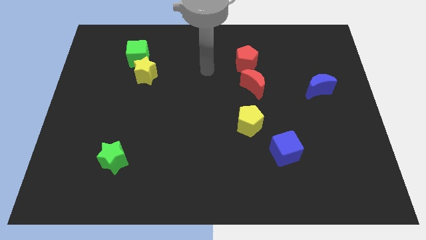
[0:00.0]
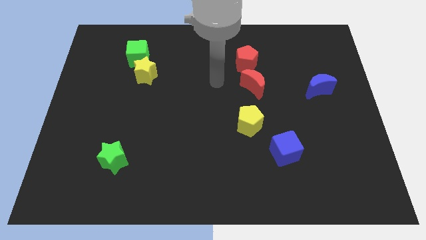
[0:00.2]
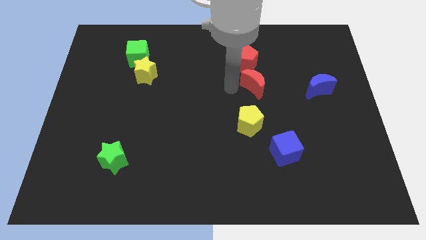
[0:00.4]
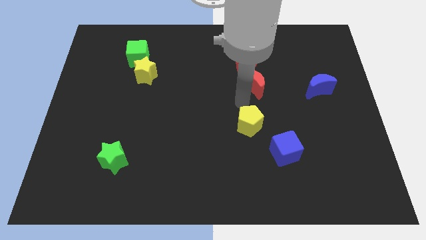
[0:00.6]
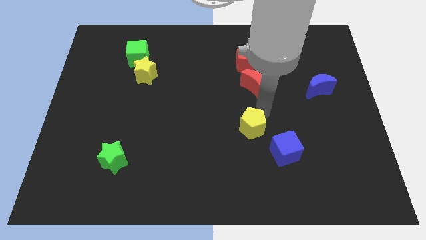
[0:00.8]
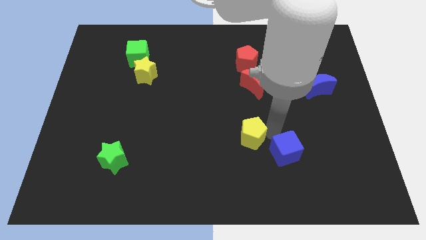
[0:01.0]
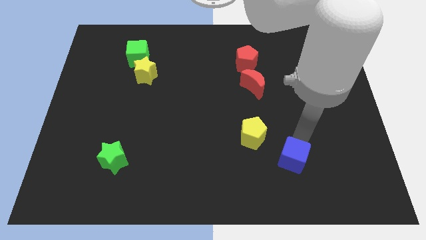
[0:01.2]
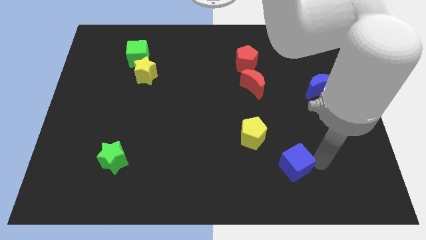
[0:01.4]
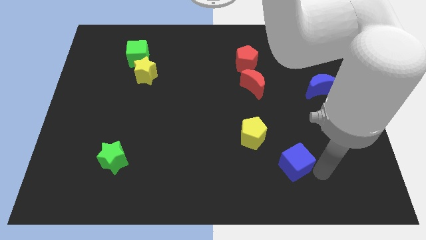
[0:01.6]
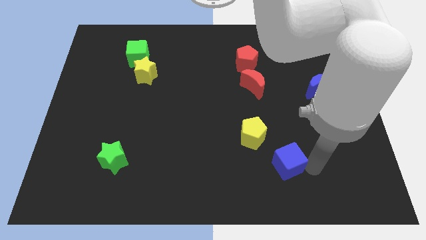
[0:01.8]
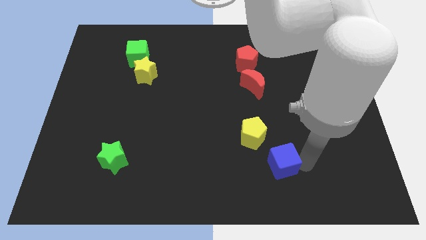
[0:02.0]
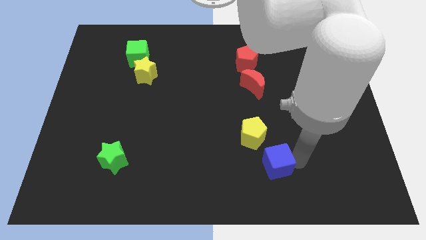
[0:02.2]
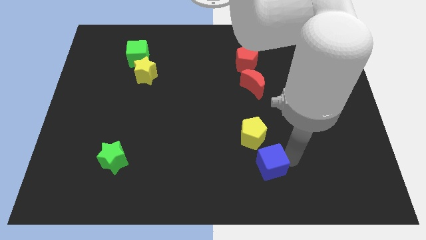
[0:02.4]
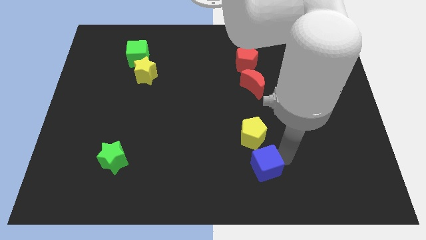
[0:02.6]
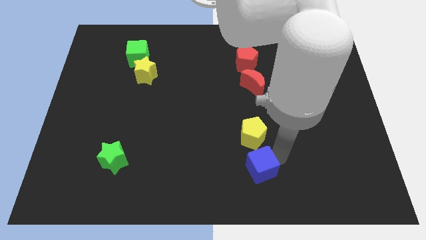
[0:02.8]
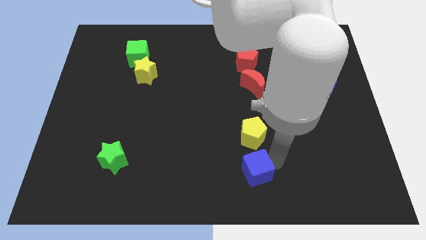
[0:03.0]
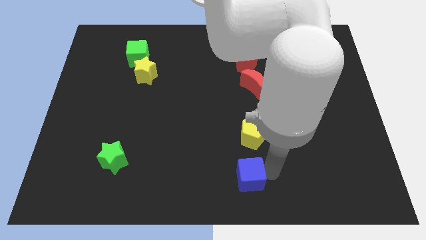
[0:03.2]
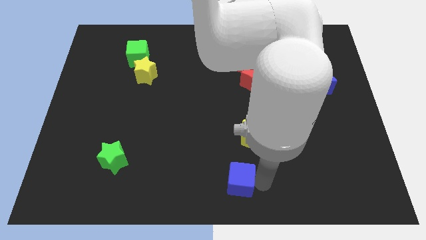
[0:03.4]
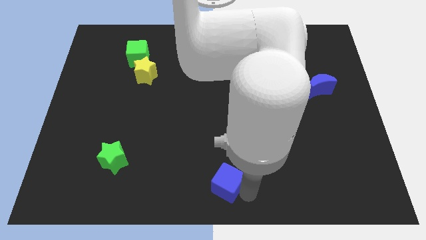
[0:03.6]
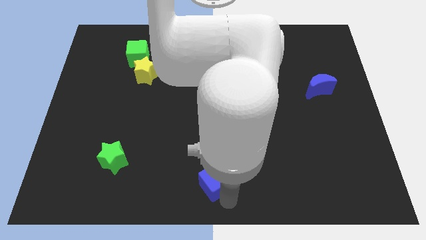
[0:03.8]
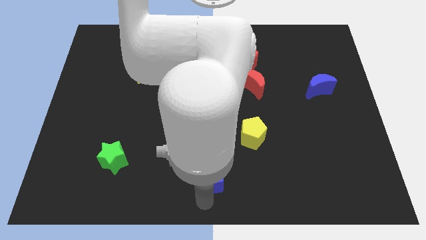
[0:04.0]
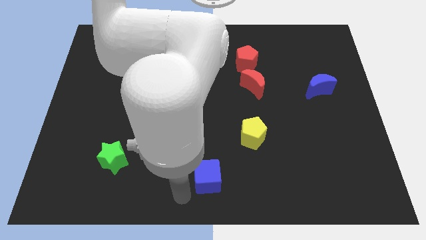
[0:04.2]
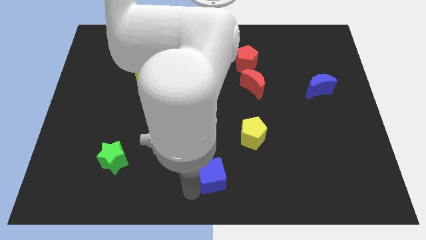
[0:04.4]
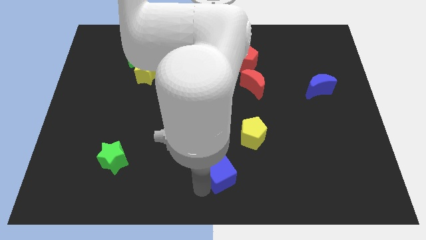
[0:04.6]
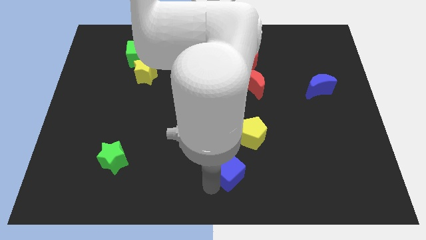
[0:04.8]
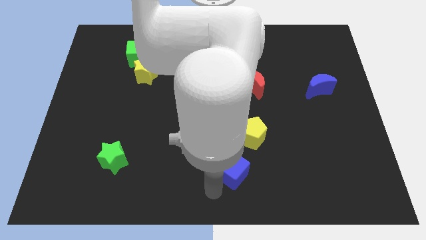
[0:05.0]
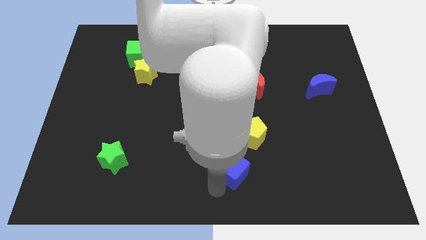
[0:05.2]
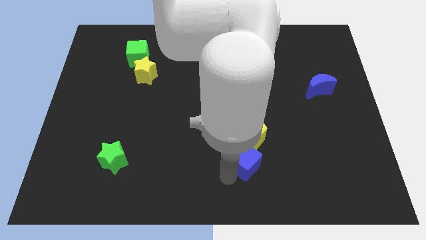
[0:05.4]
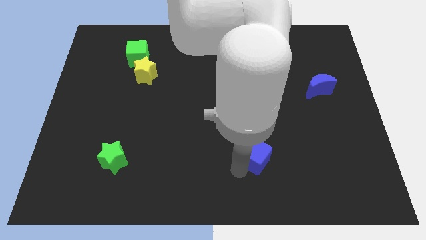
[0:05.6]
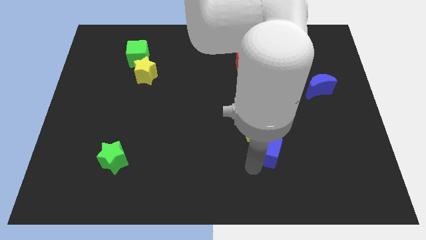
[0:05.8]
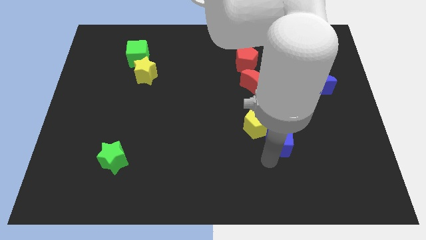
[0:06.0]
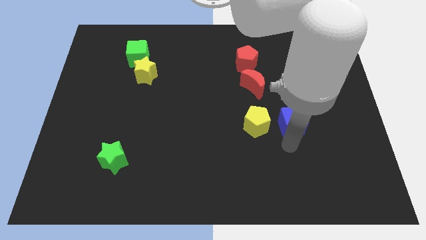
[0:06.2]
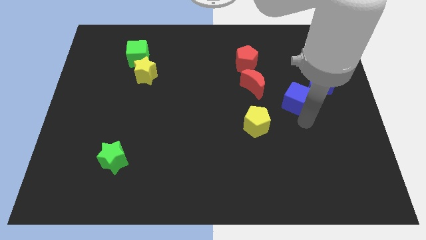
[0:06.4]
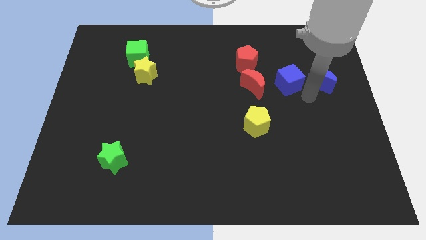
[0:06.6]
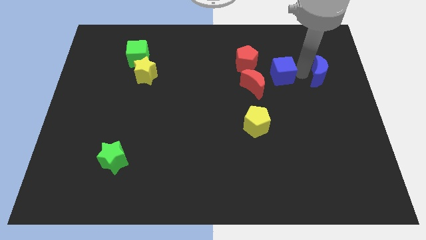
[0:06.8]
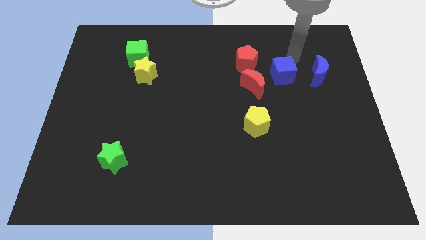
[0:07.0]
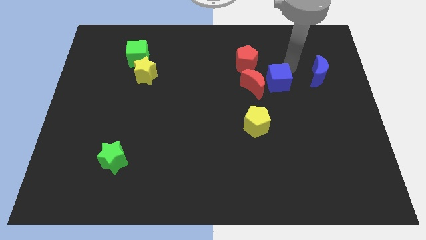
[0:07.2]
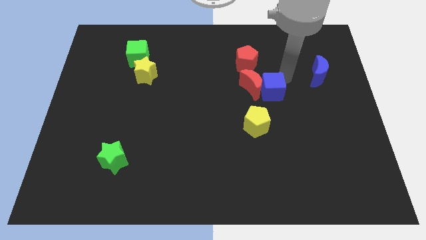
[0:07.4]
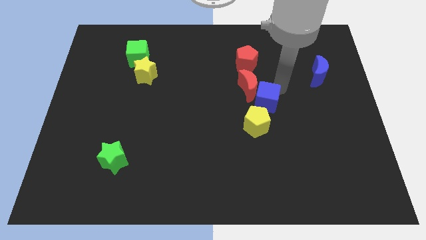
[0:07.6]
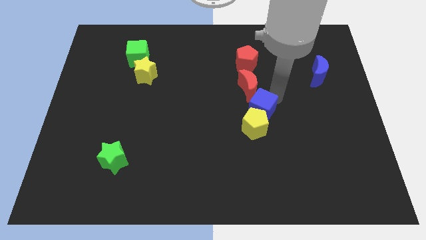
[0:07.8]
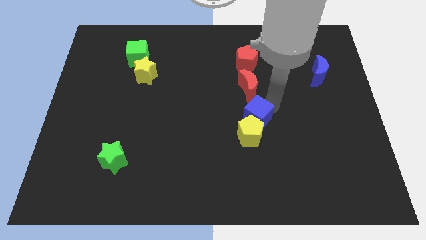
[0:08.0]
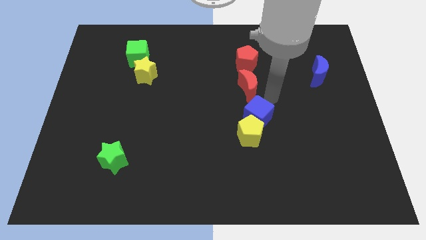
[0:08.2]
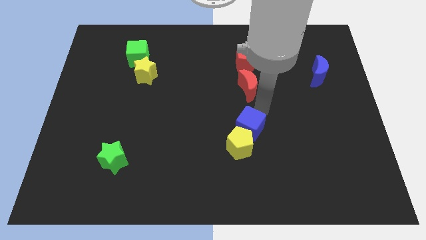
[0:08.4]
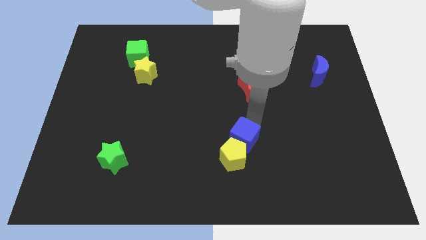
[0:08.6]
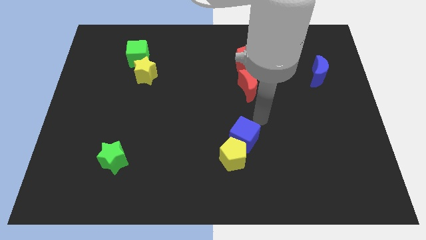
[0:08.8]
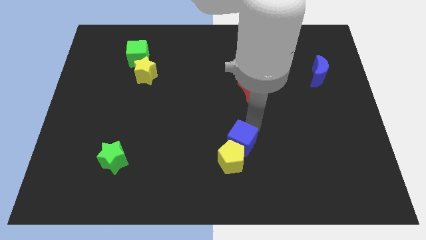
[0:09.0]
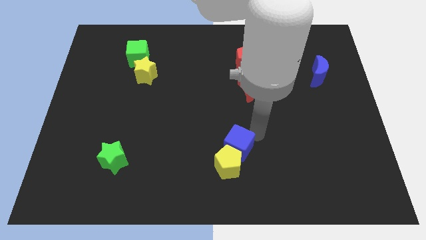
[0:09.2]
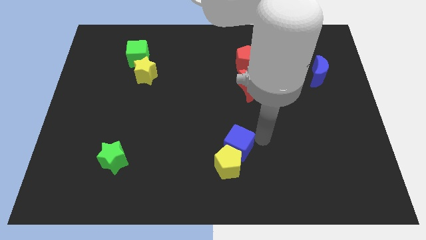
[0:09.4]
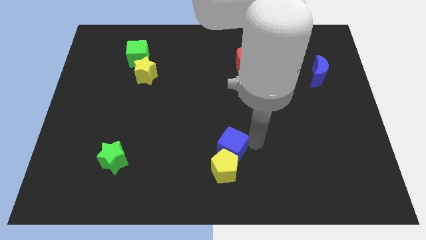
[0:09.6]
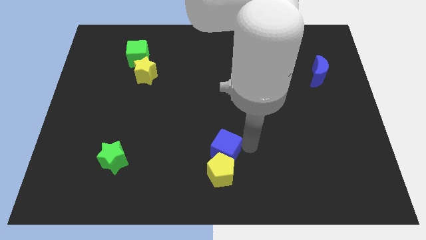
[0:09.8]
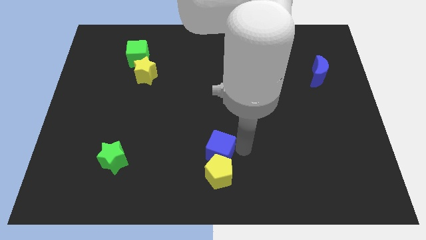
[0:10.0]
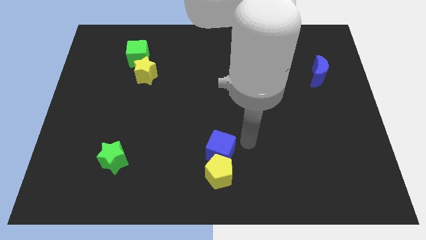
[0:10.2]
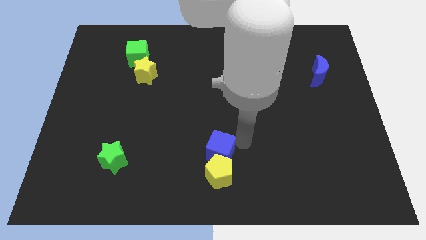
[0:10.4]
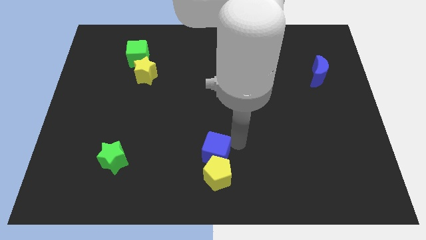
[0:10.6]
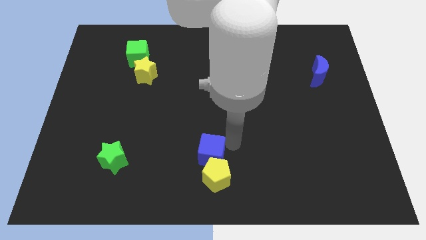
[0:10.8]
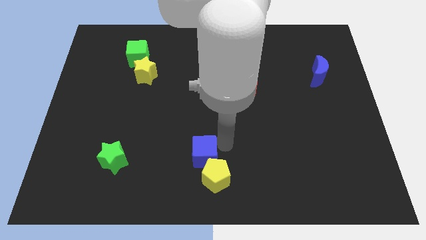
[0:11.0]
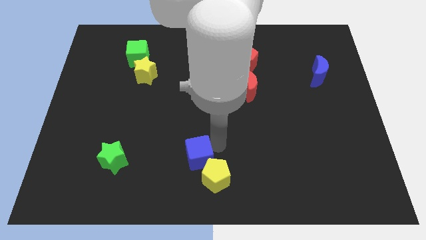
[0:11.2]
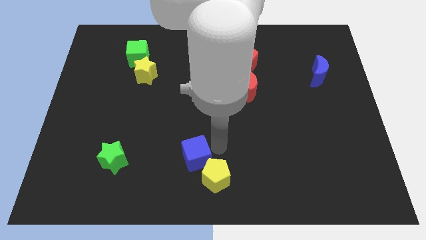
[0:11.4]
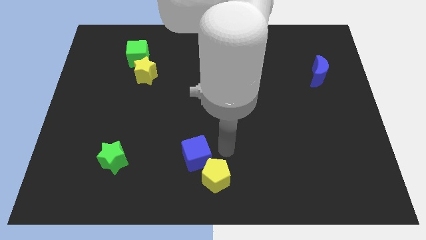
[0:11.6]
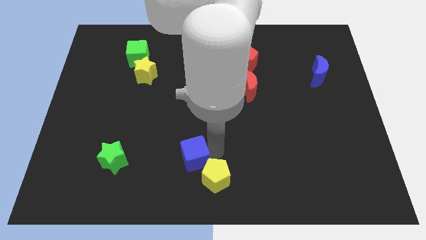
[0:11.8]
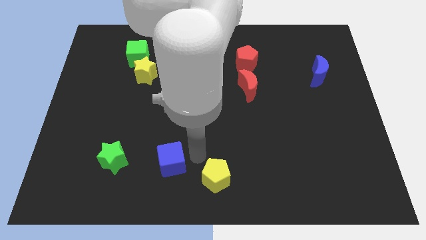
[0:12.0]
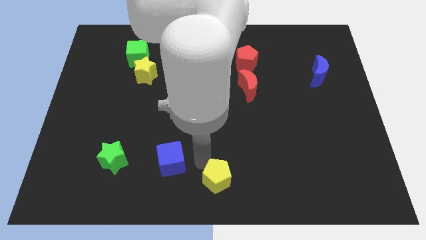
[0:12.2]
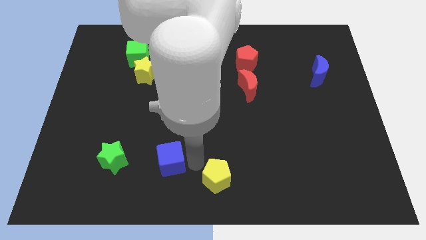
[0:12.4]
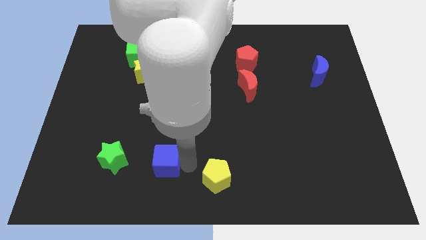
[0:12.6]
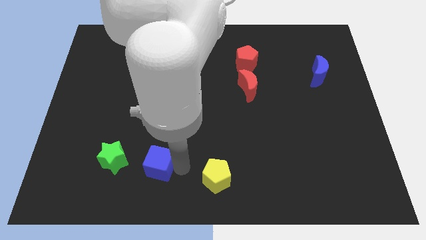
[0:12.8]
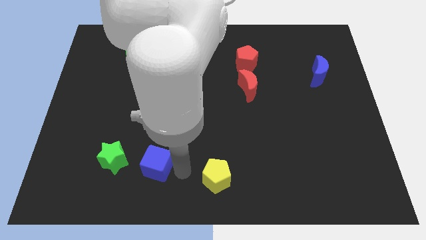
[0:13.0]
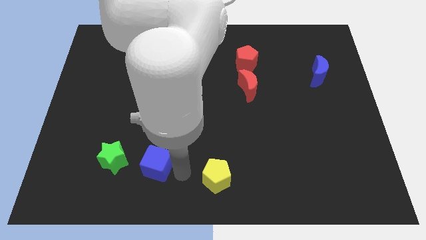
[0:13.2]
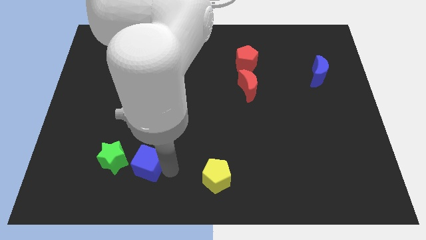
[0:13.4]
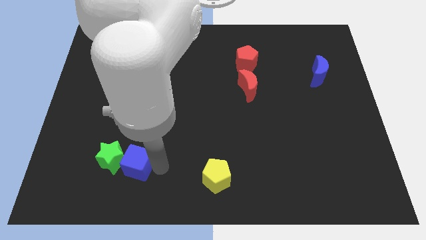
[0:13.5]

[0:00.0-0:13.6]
push the blue cube towards the green star
